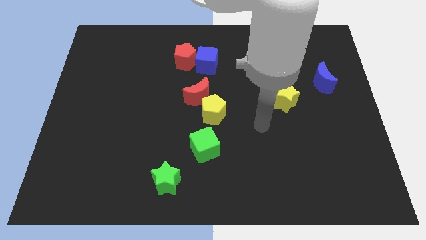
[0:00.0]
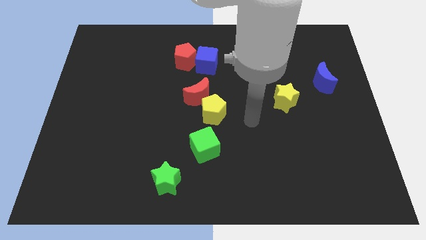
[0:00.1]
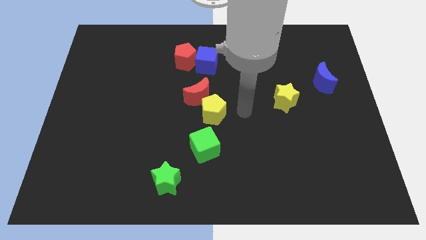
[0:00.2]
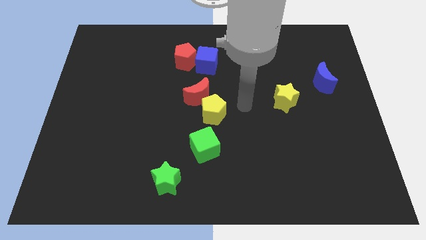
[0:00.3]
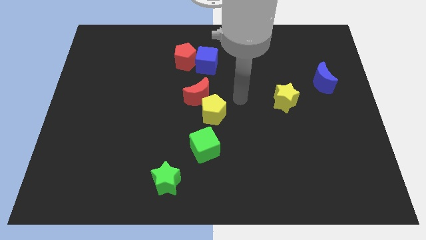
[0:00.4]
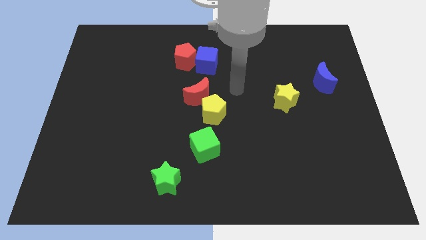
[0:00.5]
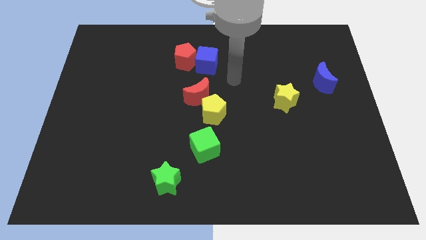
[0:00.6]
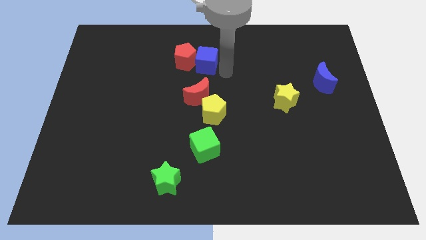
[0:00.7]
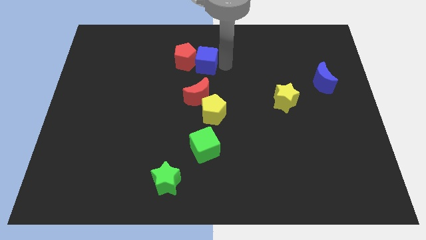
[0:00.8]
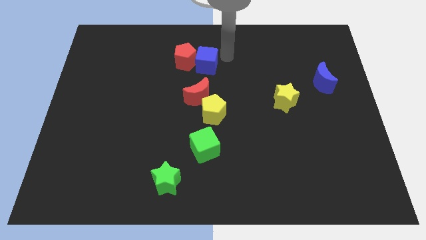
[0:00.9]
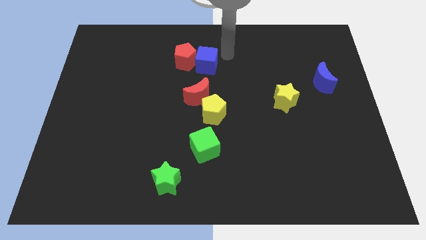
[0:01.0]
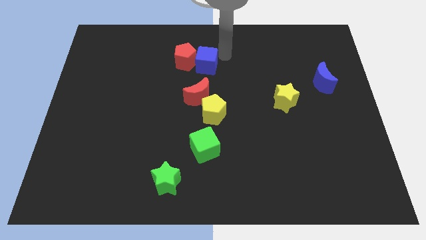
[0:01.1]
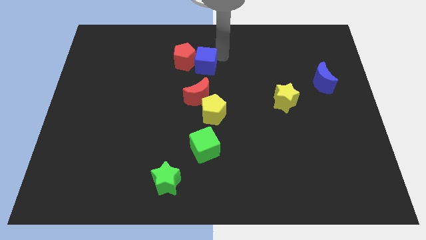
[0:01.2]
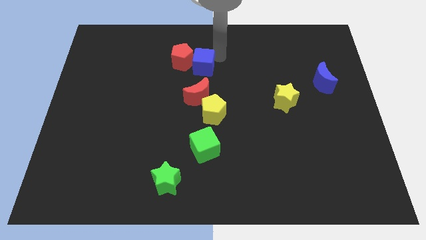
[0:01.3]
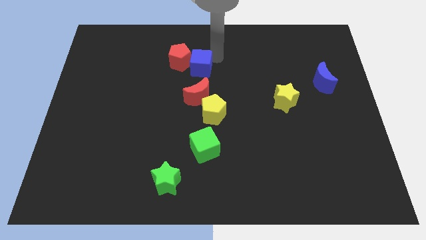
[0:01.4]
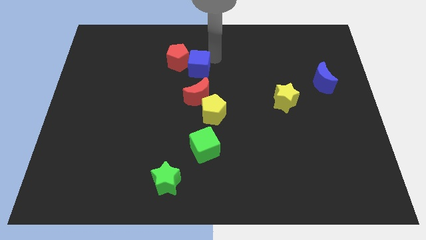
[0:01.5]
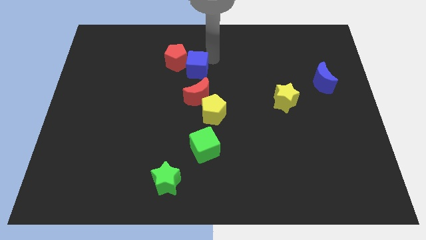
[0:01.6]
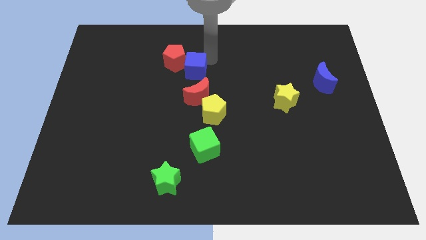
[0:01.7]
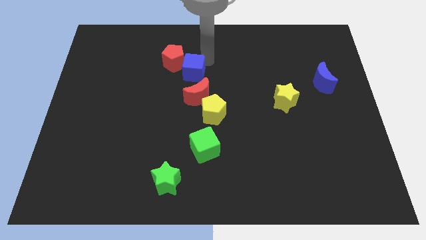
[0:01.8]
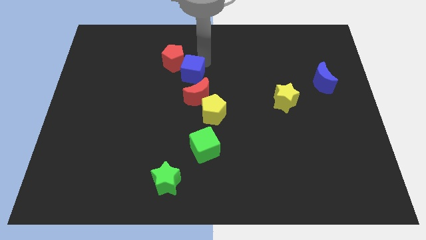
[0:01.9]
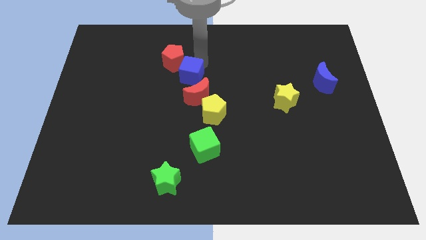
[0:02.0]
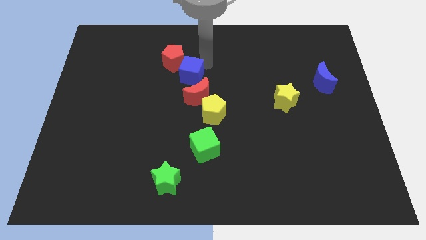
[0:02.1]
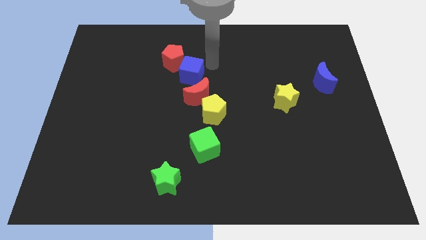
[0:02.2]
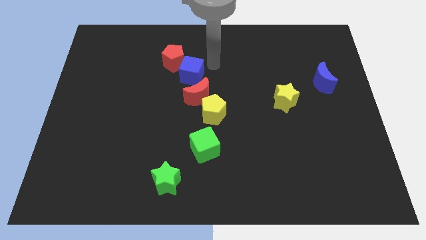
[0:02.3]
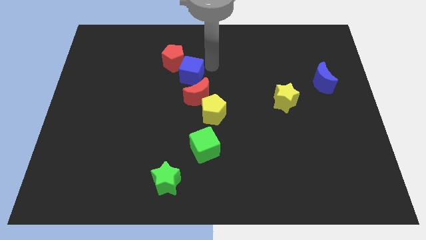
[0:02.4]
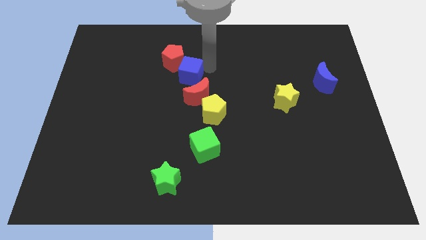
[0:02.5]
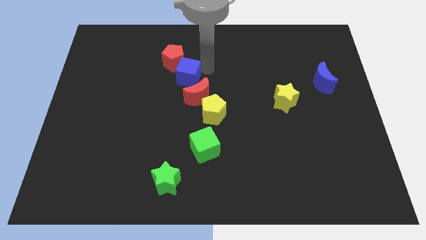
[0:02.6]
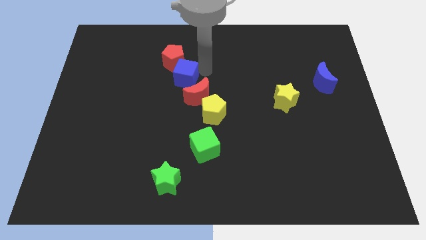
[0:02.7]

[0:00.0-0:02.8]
move the blue cube downwards and left a little bit

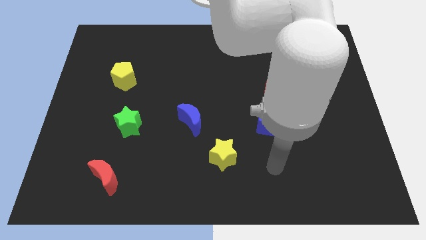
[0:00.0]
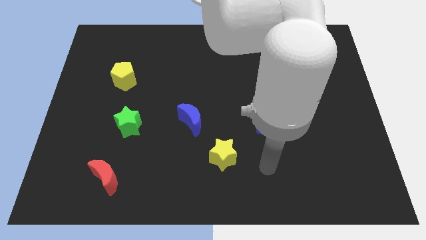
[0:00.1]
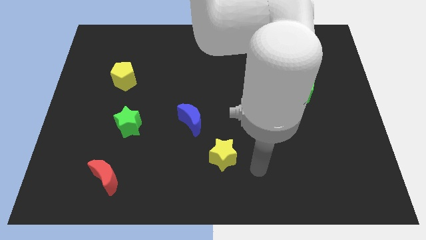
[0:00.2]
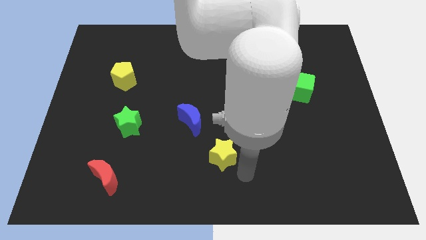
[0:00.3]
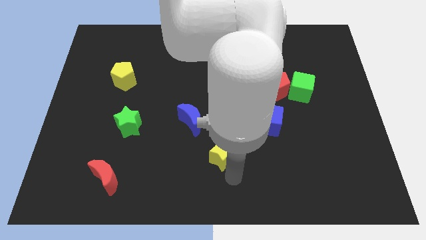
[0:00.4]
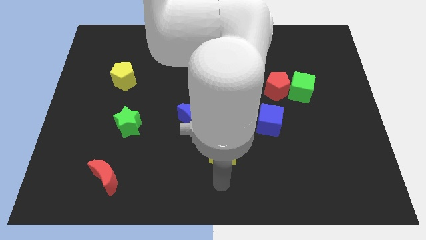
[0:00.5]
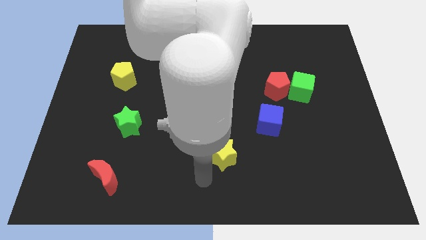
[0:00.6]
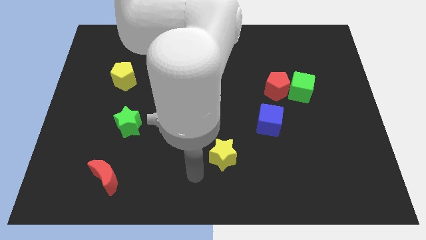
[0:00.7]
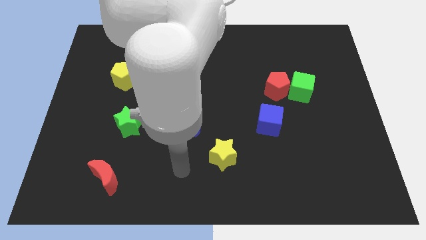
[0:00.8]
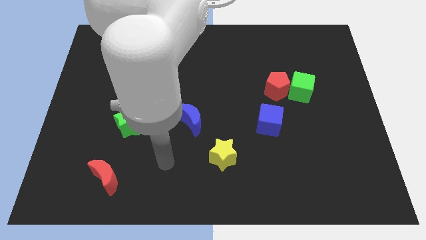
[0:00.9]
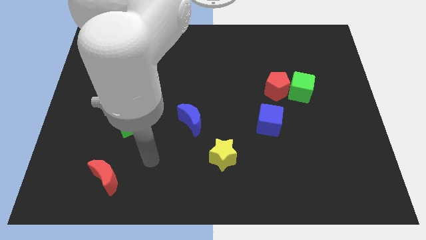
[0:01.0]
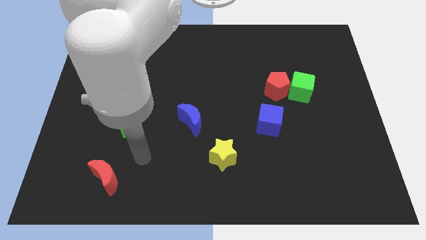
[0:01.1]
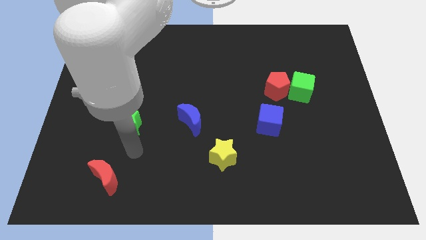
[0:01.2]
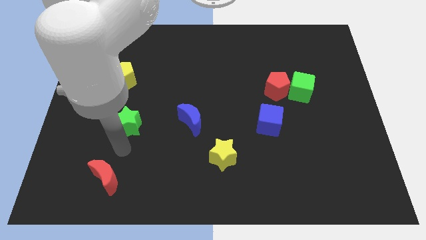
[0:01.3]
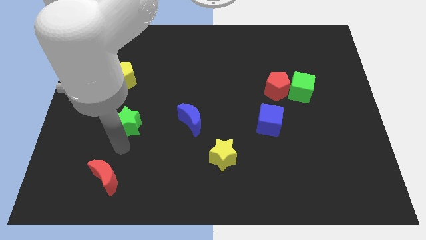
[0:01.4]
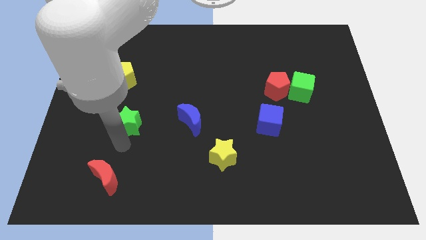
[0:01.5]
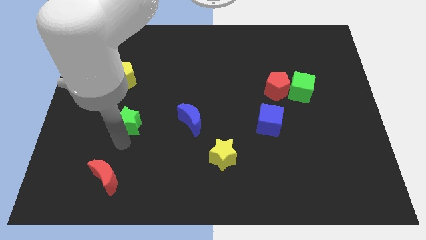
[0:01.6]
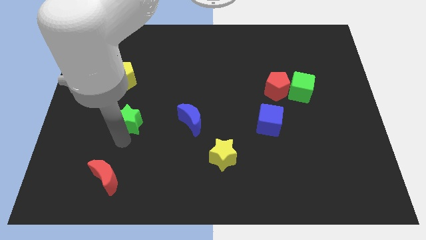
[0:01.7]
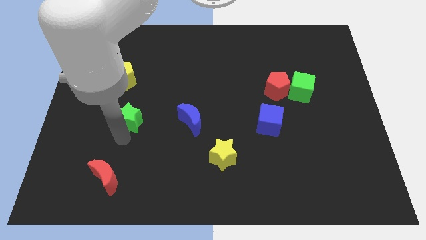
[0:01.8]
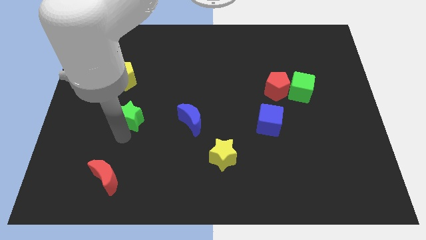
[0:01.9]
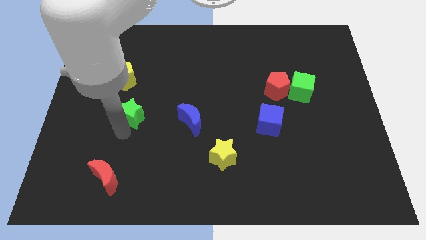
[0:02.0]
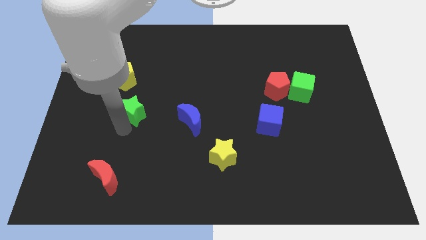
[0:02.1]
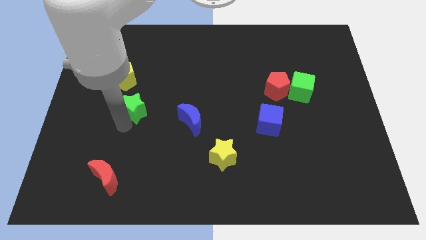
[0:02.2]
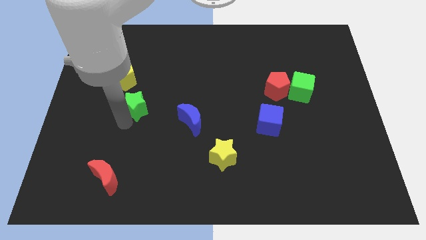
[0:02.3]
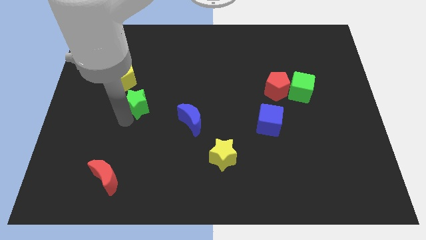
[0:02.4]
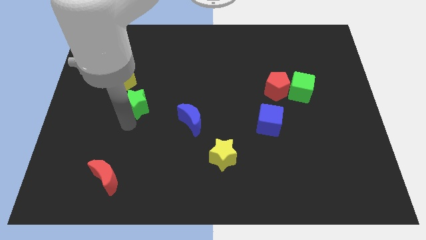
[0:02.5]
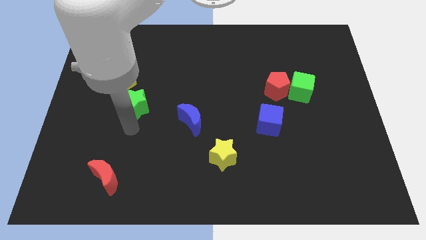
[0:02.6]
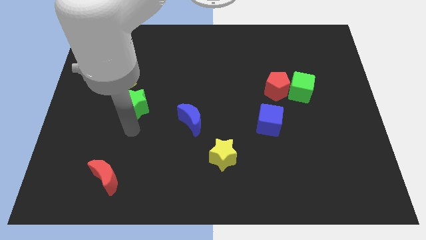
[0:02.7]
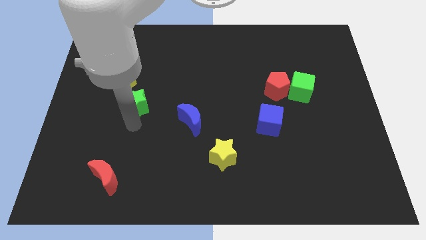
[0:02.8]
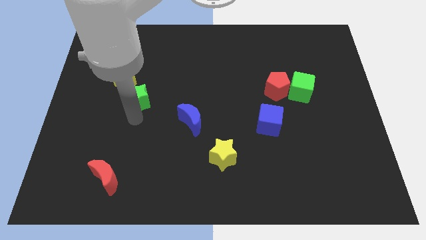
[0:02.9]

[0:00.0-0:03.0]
push the green star a little upwards

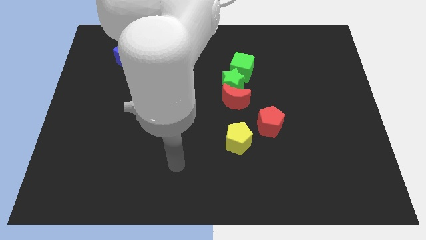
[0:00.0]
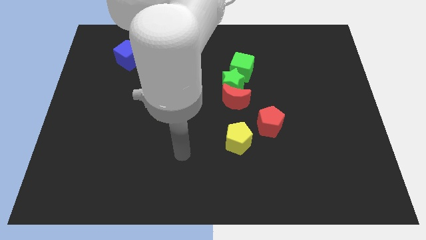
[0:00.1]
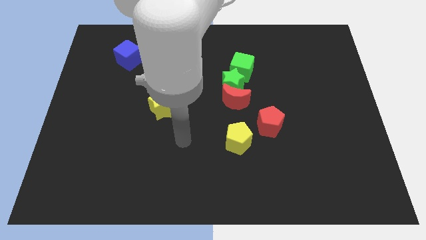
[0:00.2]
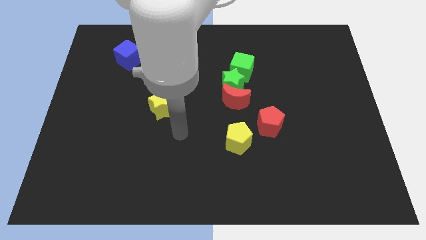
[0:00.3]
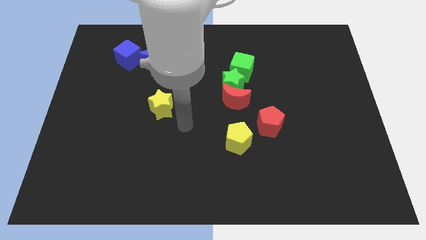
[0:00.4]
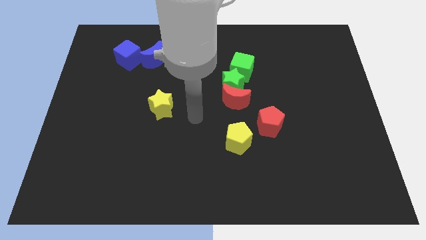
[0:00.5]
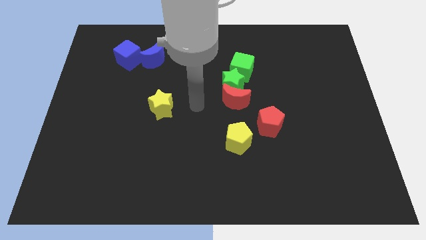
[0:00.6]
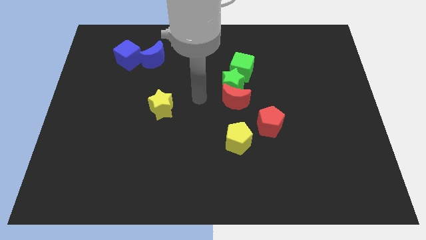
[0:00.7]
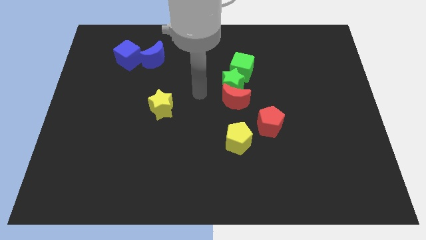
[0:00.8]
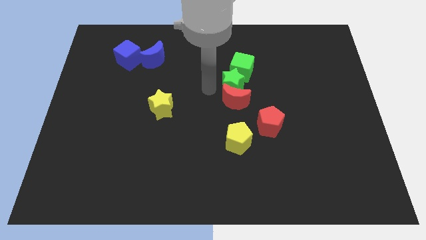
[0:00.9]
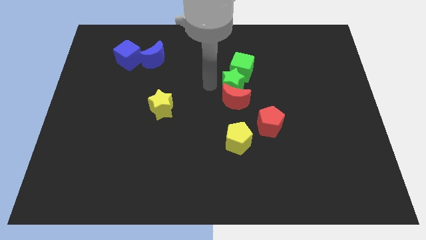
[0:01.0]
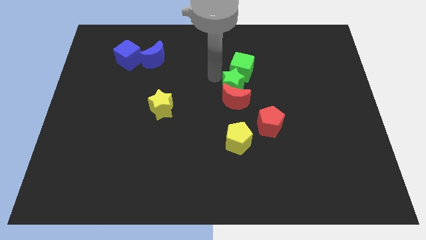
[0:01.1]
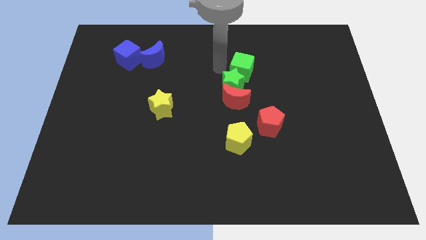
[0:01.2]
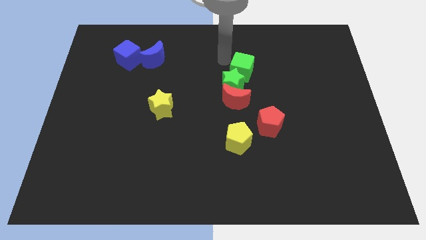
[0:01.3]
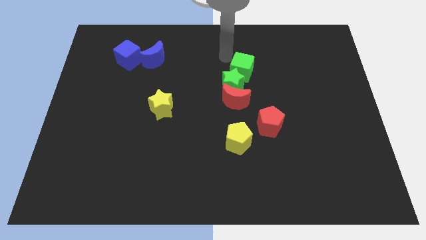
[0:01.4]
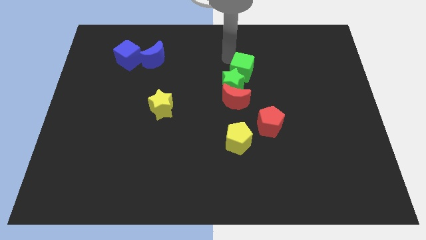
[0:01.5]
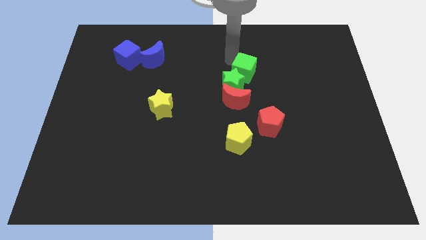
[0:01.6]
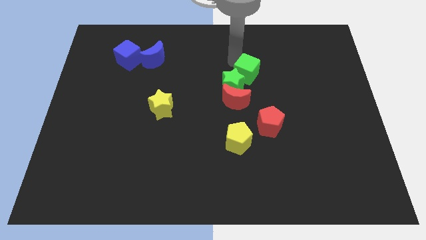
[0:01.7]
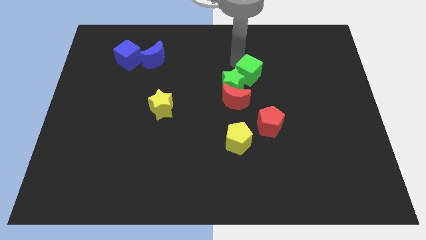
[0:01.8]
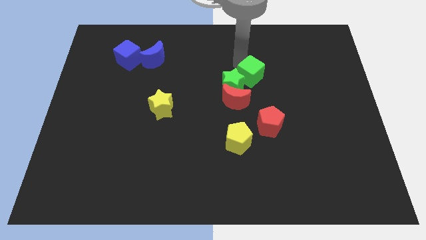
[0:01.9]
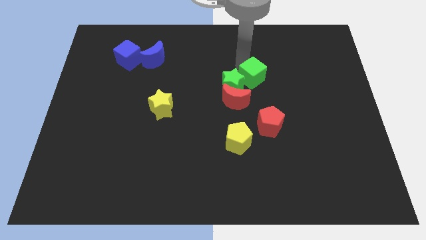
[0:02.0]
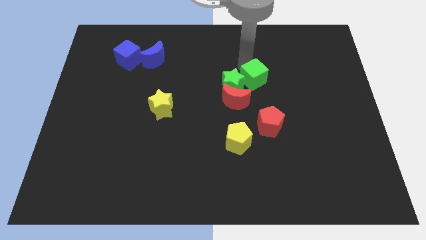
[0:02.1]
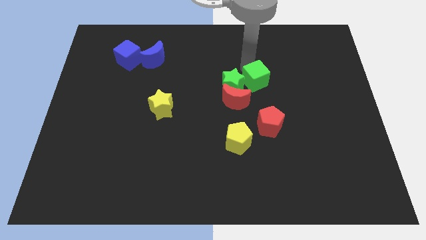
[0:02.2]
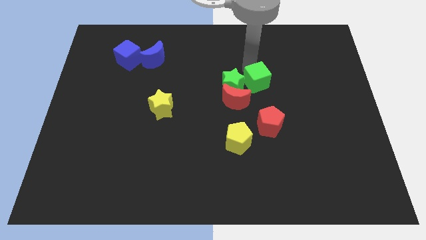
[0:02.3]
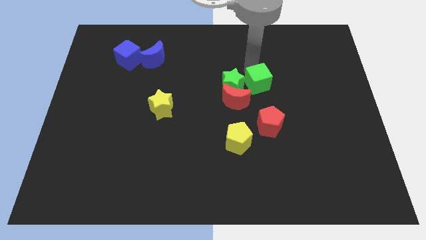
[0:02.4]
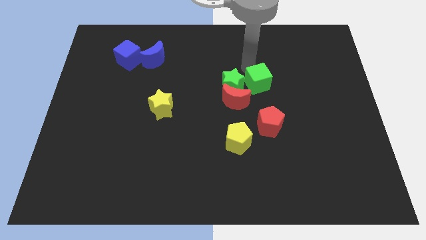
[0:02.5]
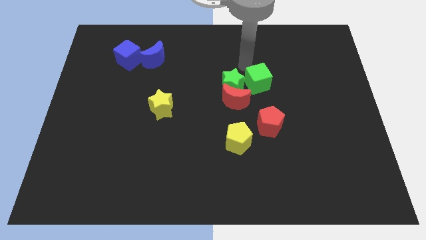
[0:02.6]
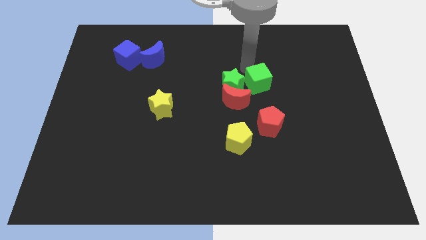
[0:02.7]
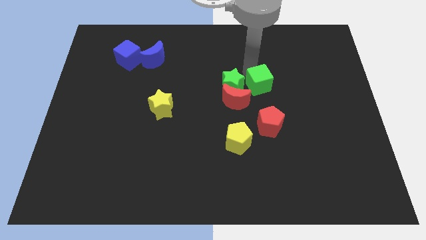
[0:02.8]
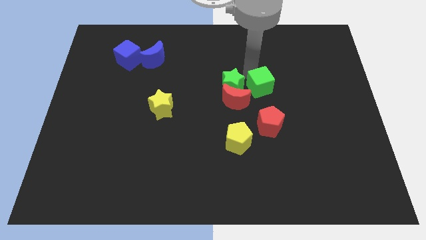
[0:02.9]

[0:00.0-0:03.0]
push the green cube slightly downwards and to the right diagonally
